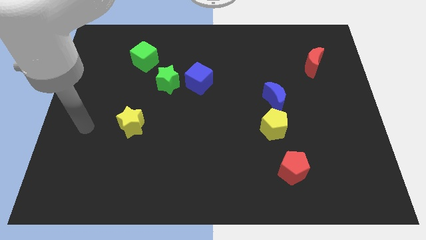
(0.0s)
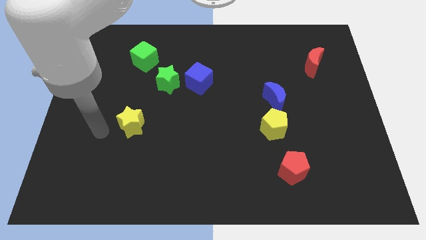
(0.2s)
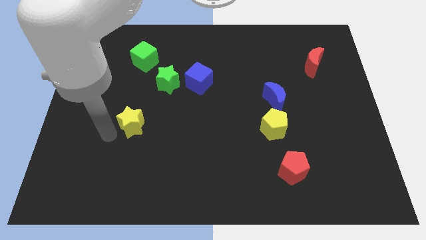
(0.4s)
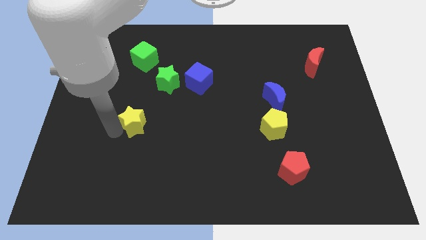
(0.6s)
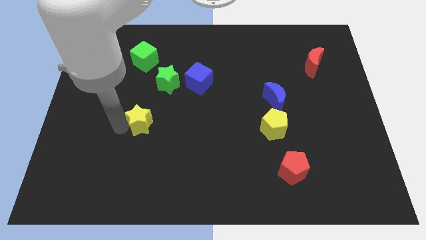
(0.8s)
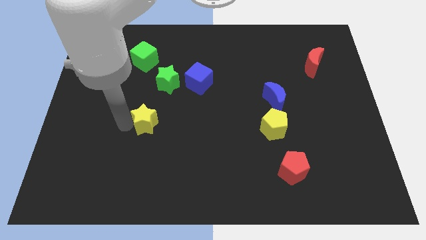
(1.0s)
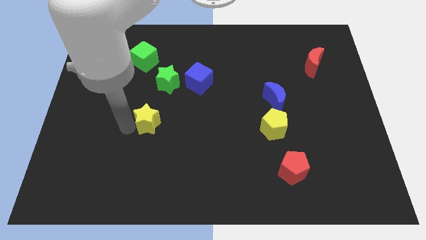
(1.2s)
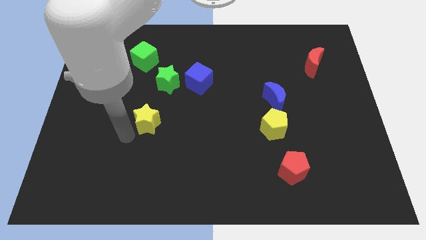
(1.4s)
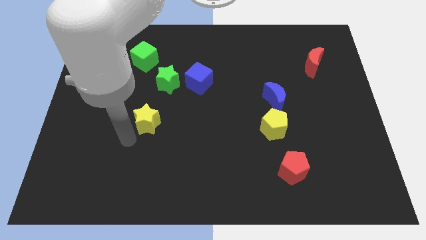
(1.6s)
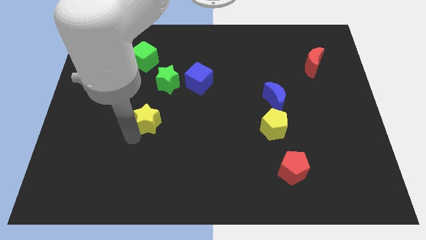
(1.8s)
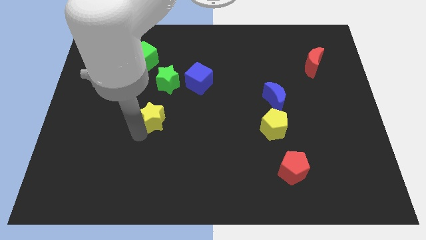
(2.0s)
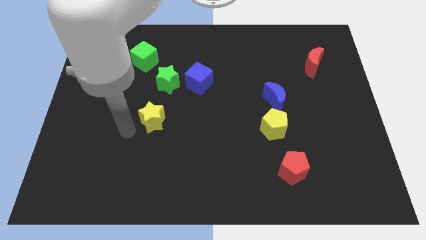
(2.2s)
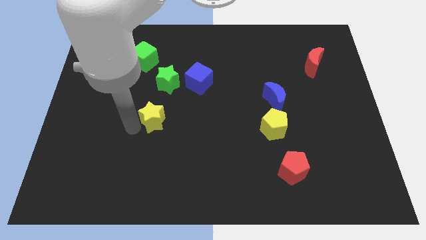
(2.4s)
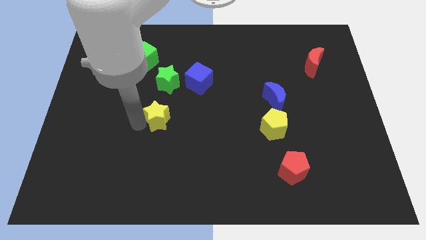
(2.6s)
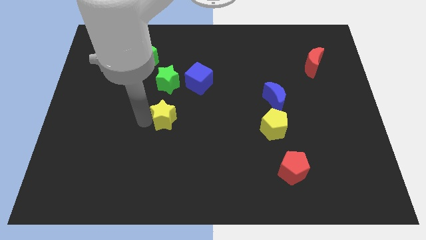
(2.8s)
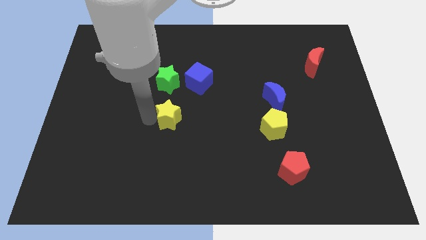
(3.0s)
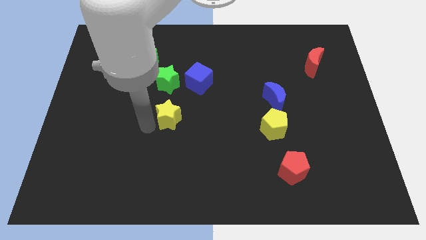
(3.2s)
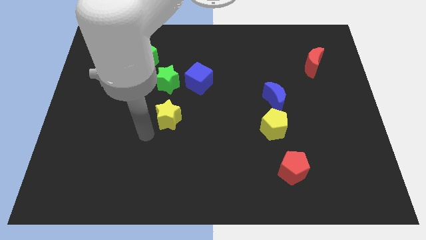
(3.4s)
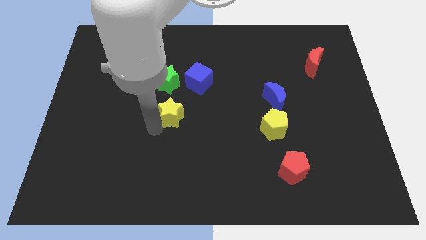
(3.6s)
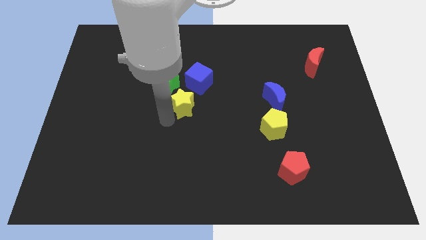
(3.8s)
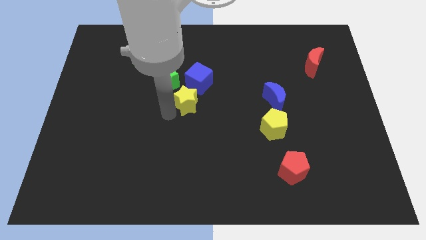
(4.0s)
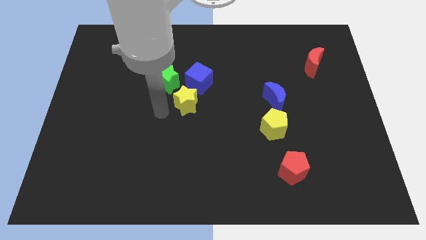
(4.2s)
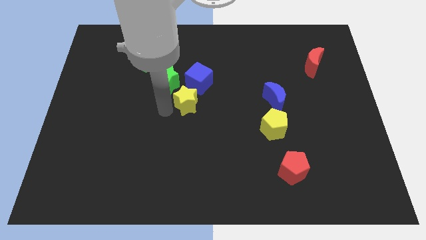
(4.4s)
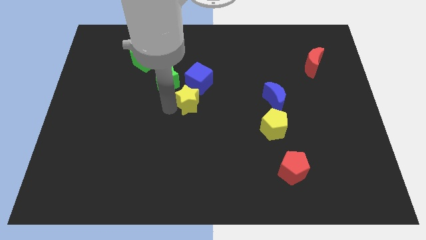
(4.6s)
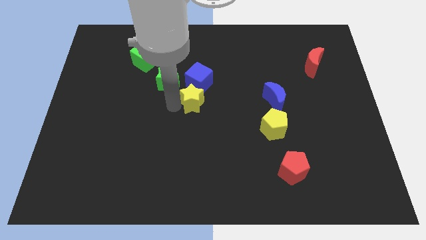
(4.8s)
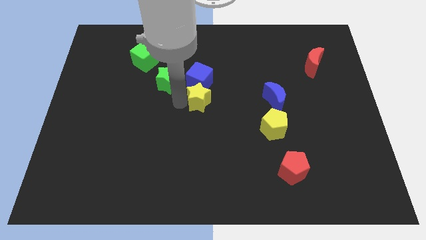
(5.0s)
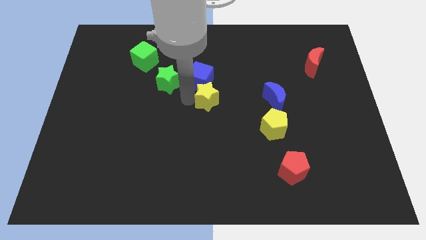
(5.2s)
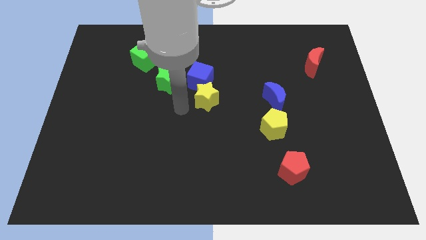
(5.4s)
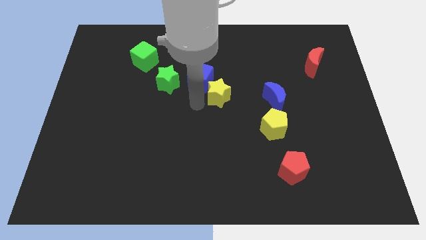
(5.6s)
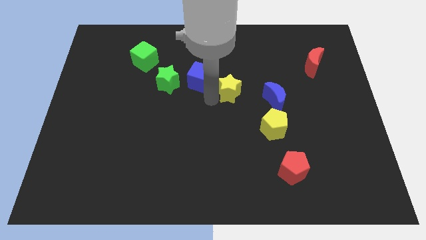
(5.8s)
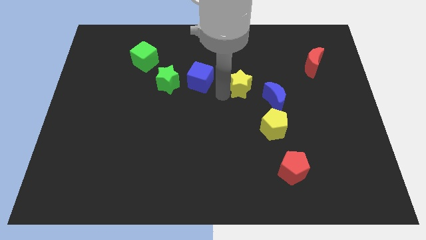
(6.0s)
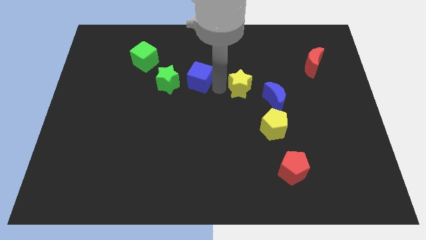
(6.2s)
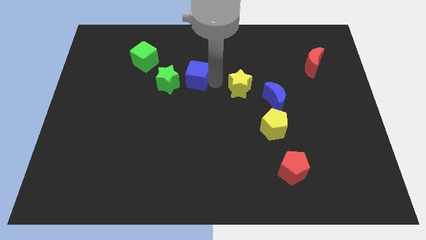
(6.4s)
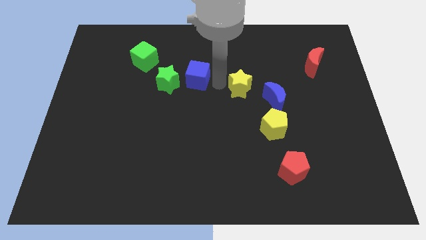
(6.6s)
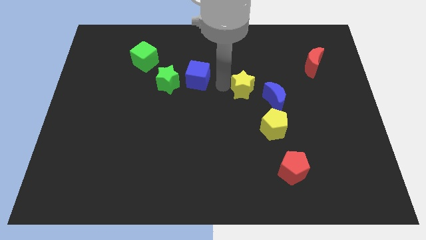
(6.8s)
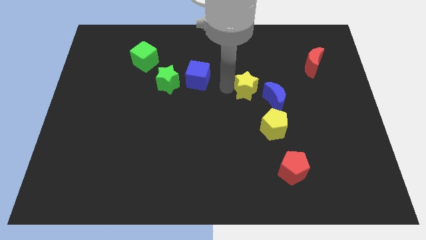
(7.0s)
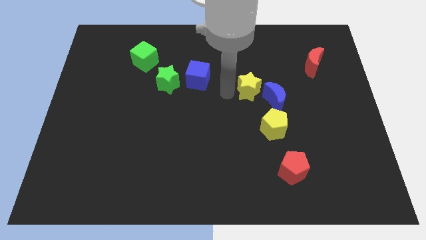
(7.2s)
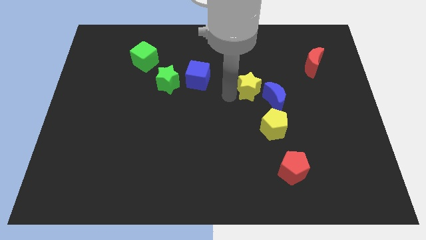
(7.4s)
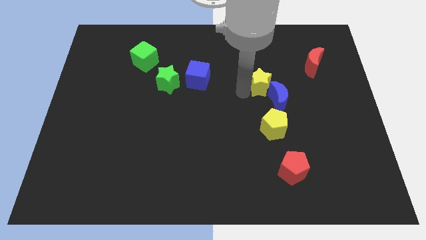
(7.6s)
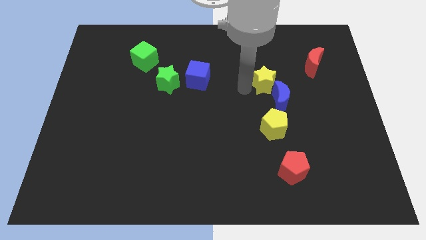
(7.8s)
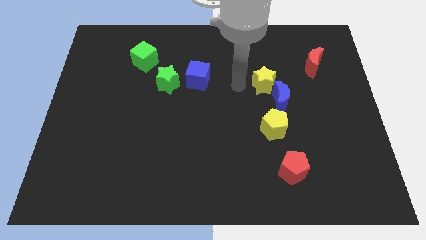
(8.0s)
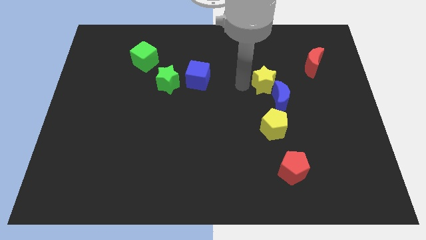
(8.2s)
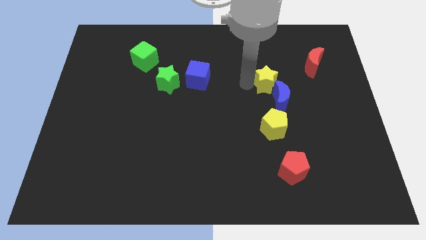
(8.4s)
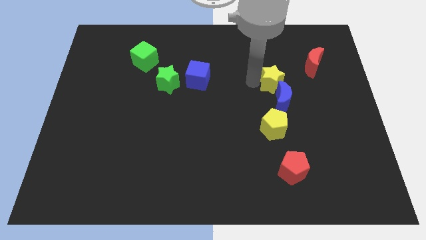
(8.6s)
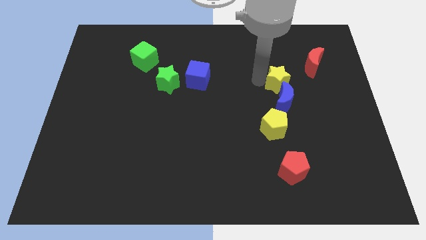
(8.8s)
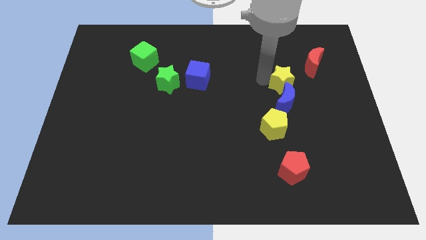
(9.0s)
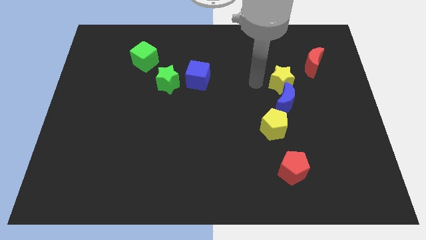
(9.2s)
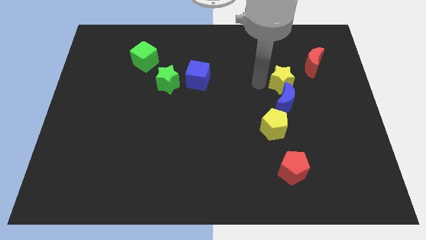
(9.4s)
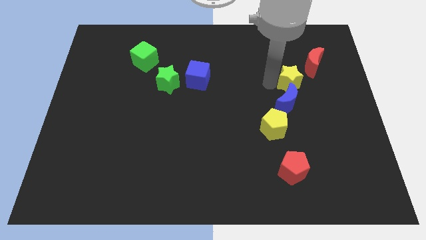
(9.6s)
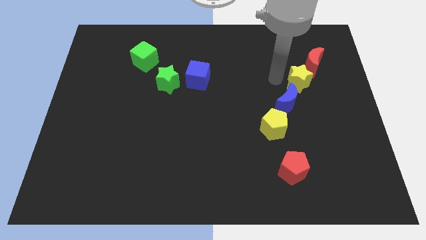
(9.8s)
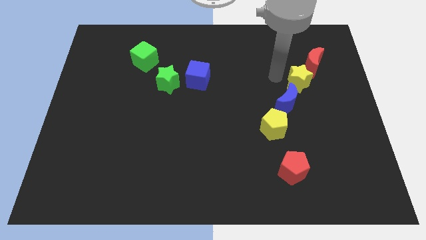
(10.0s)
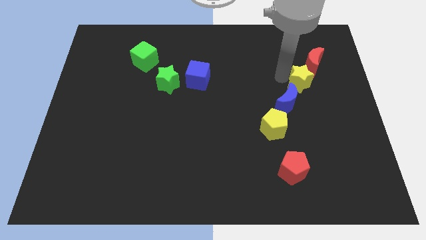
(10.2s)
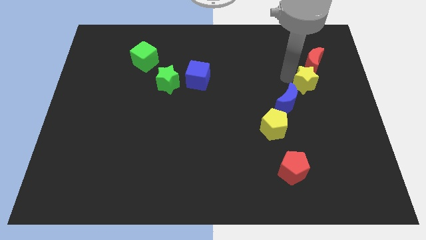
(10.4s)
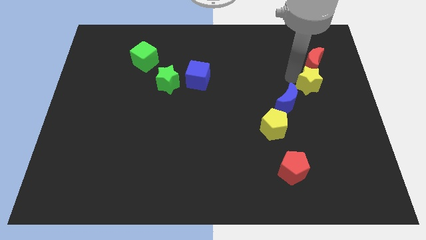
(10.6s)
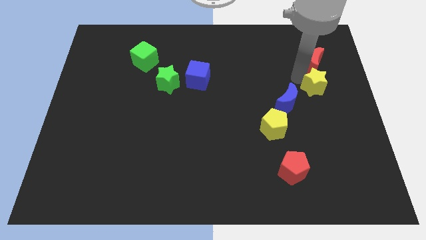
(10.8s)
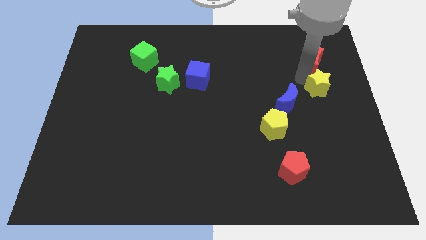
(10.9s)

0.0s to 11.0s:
put the yellow star to the center right

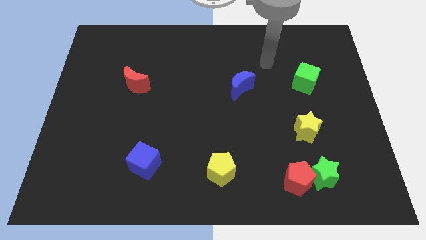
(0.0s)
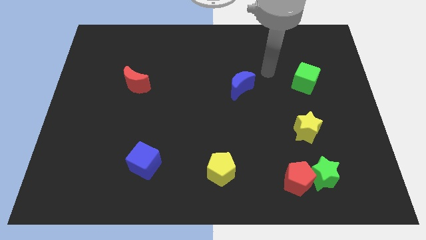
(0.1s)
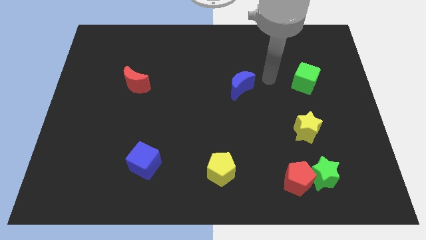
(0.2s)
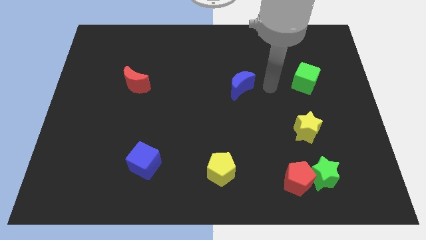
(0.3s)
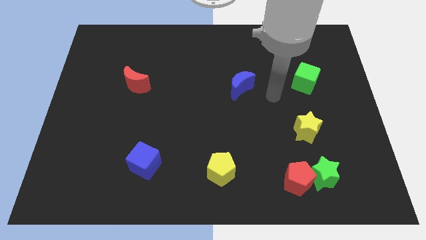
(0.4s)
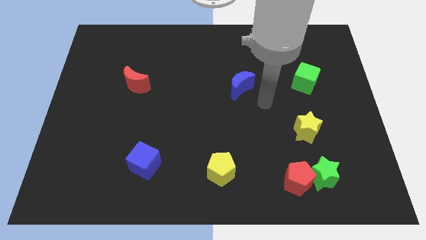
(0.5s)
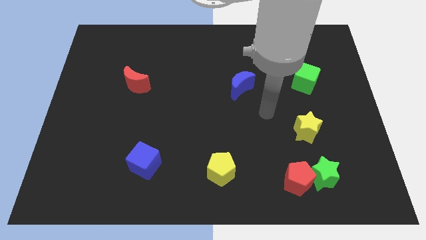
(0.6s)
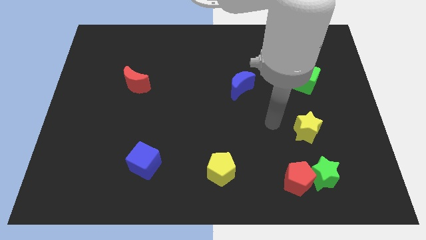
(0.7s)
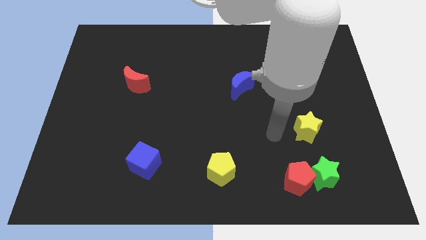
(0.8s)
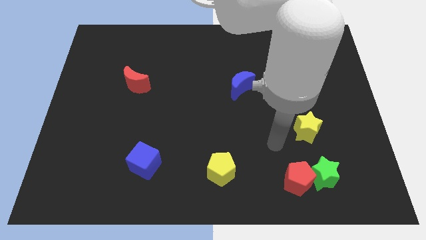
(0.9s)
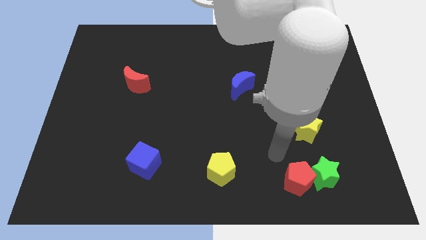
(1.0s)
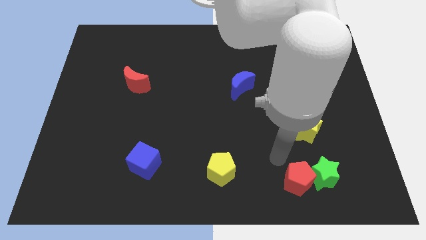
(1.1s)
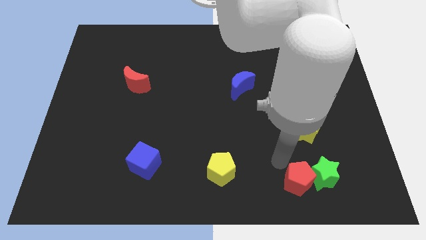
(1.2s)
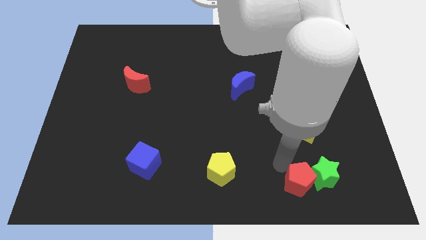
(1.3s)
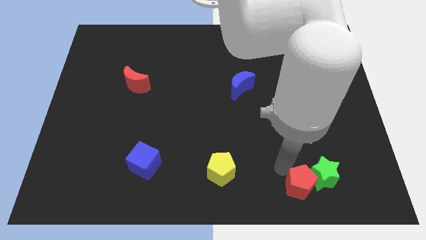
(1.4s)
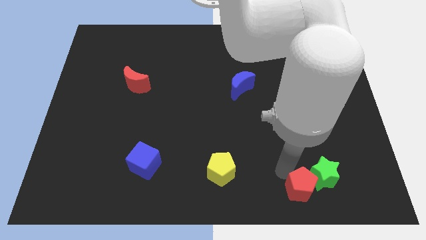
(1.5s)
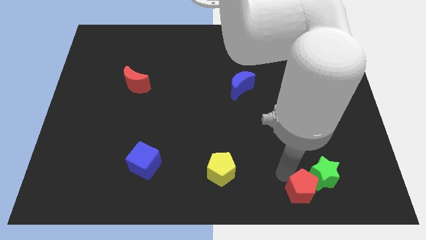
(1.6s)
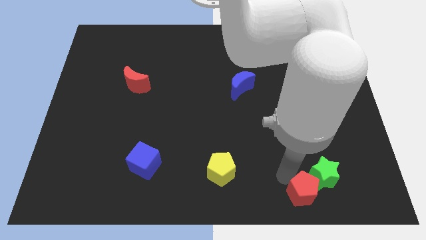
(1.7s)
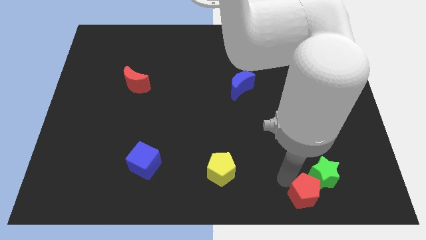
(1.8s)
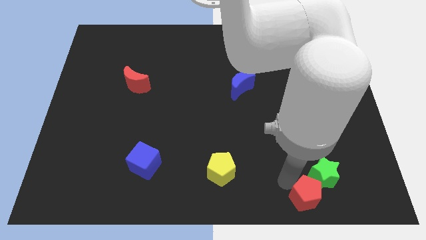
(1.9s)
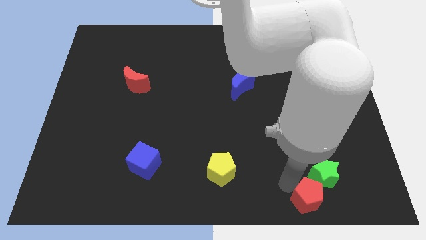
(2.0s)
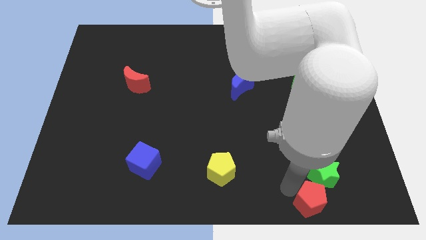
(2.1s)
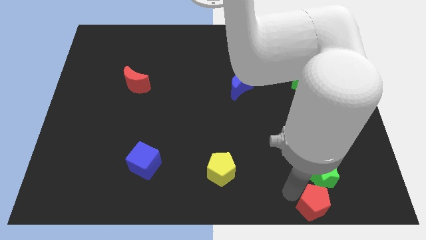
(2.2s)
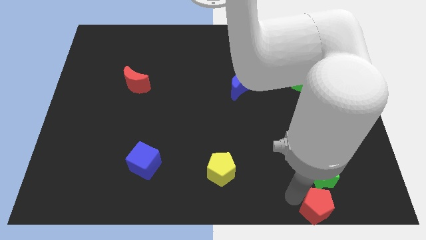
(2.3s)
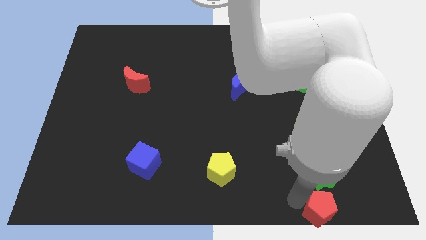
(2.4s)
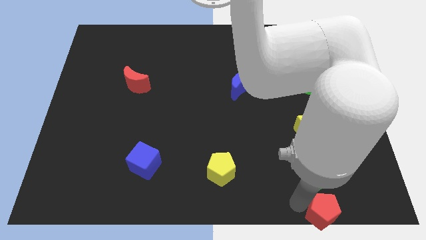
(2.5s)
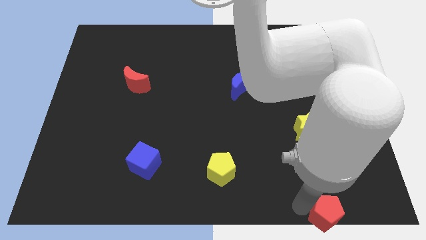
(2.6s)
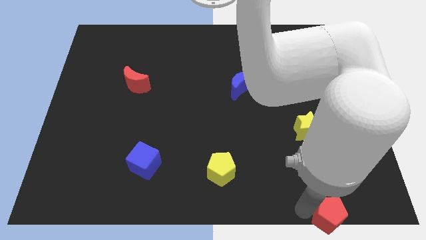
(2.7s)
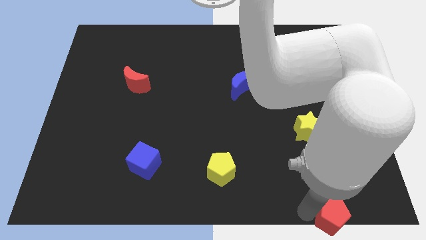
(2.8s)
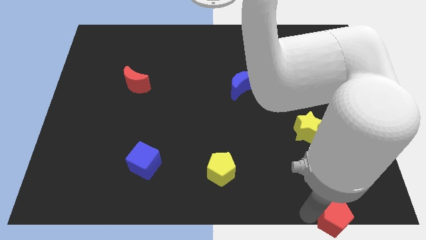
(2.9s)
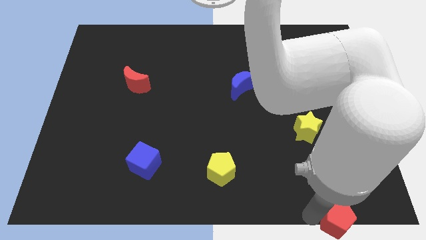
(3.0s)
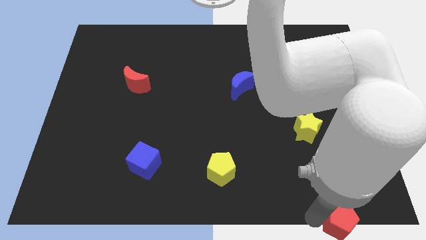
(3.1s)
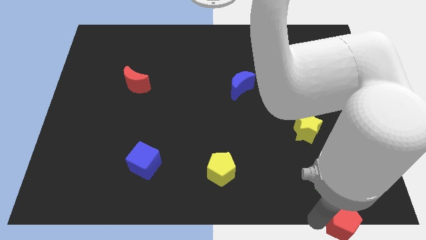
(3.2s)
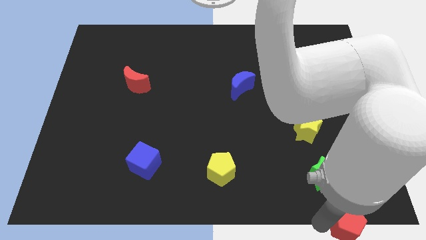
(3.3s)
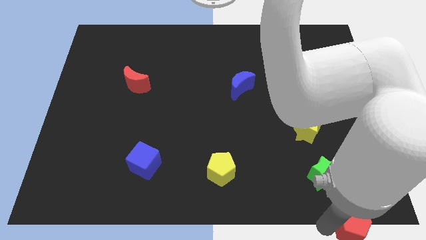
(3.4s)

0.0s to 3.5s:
put the red pentagon to the lower right corner
